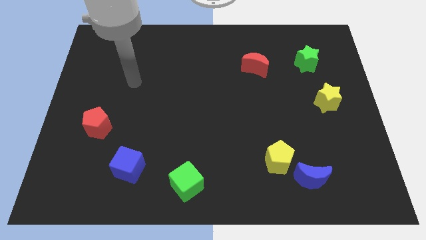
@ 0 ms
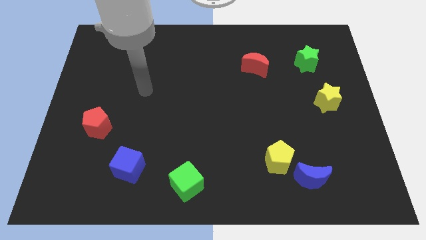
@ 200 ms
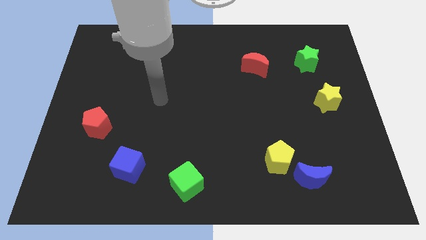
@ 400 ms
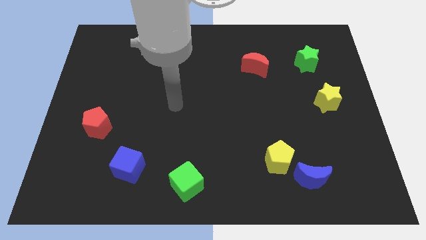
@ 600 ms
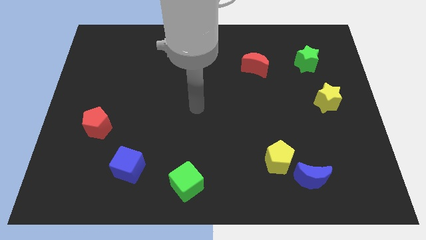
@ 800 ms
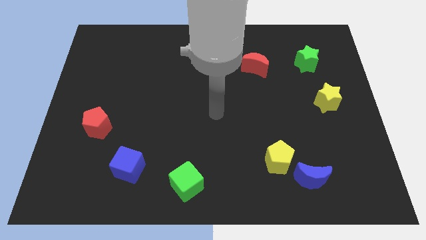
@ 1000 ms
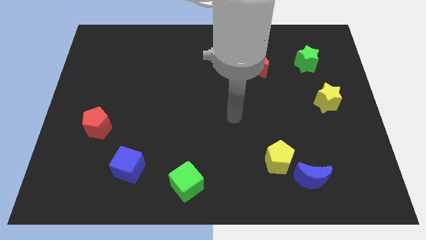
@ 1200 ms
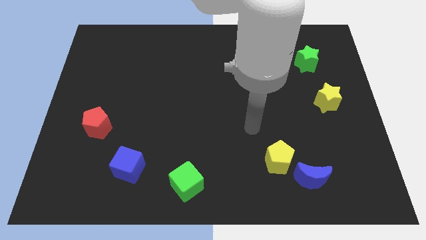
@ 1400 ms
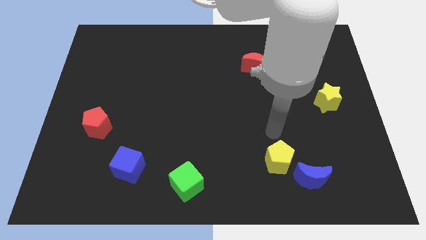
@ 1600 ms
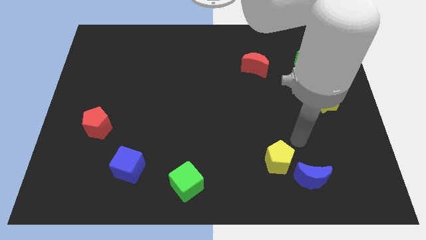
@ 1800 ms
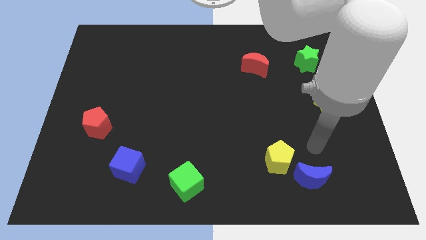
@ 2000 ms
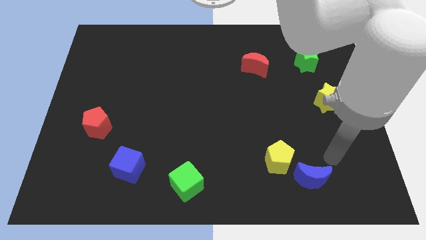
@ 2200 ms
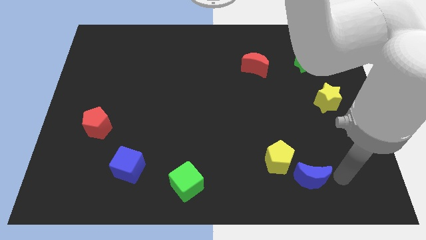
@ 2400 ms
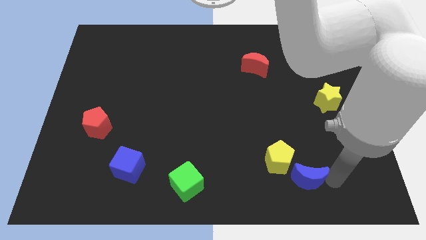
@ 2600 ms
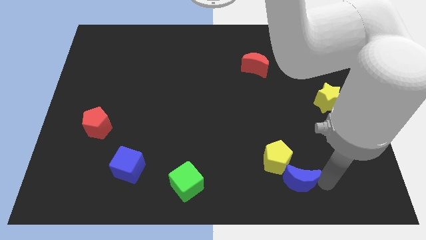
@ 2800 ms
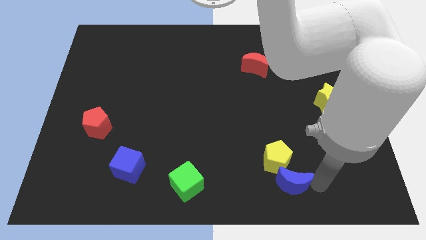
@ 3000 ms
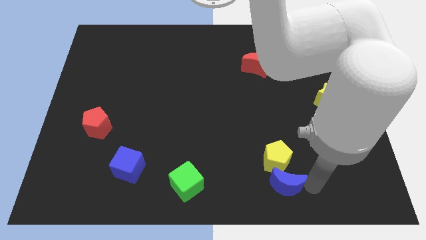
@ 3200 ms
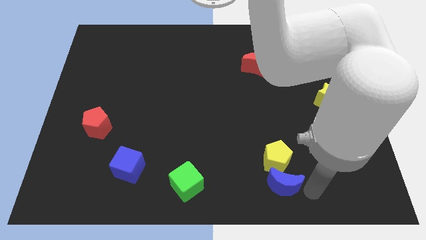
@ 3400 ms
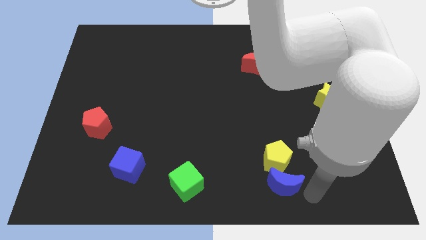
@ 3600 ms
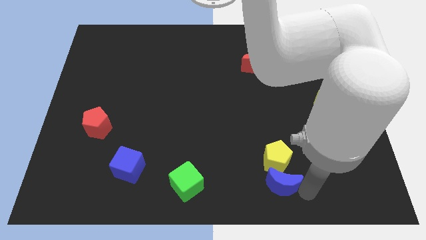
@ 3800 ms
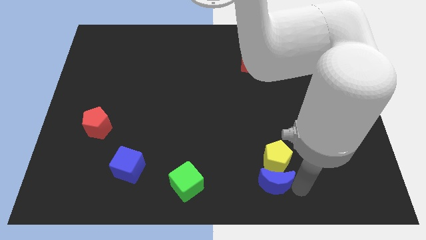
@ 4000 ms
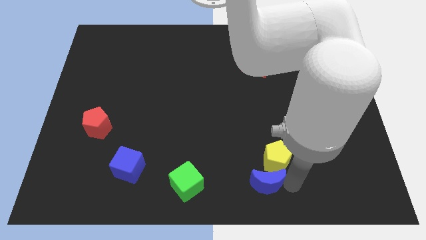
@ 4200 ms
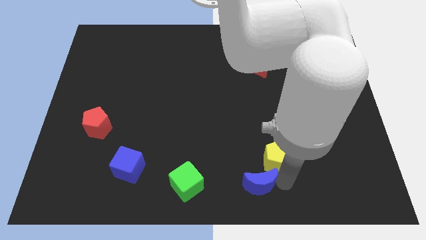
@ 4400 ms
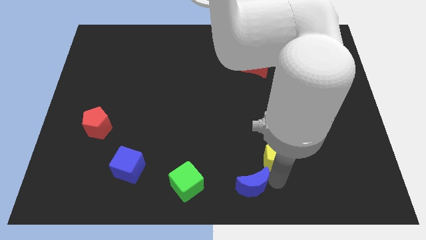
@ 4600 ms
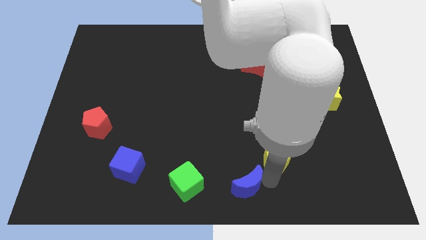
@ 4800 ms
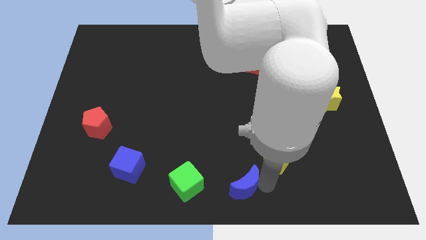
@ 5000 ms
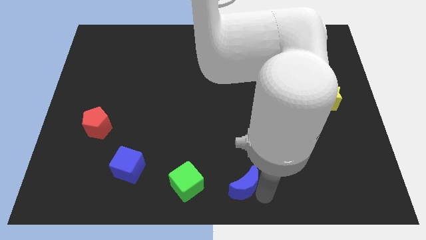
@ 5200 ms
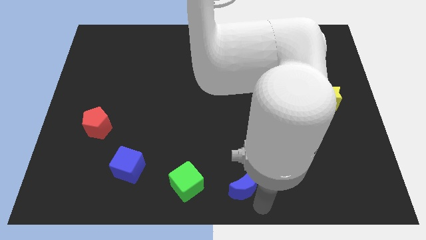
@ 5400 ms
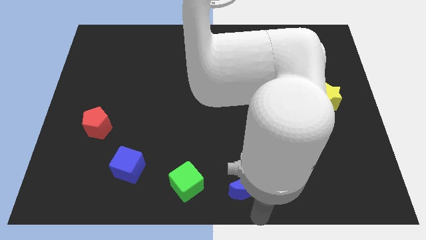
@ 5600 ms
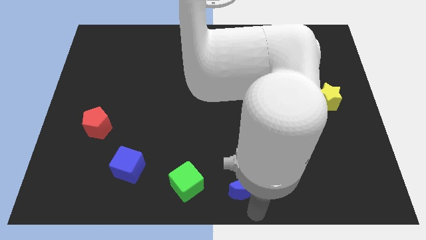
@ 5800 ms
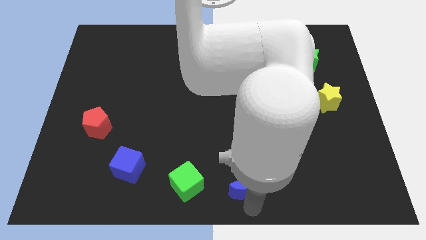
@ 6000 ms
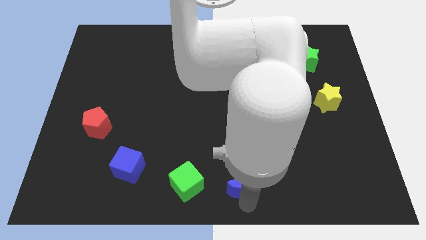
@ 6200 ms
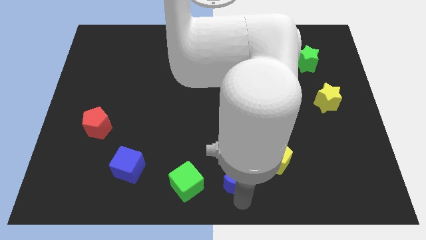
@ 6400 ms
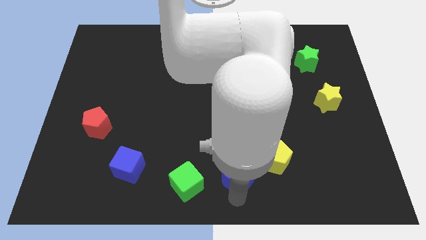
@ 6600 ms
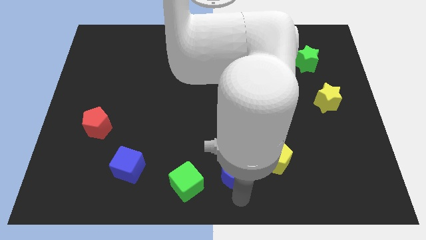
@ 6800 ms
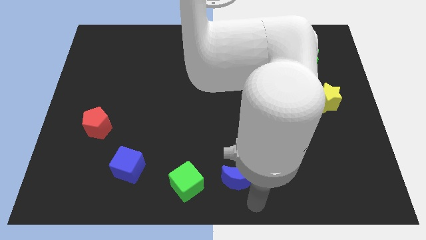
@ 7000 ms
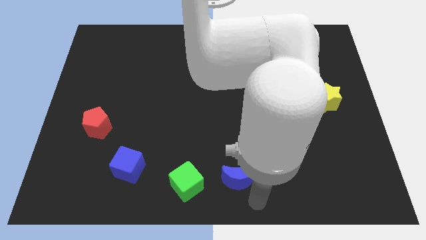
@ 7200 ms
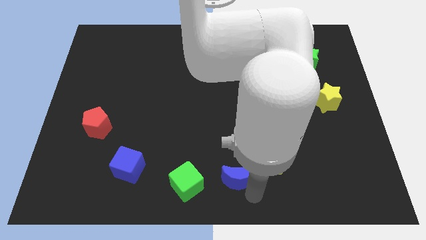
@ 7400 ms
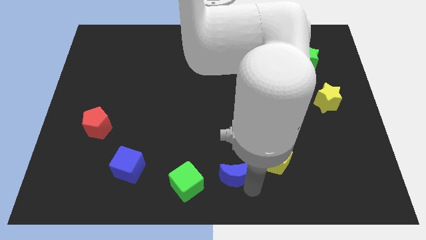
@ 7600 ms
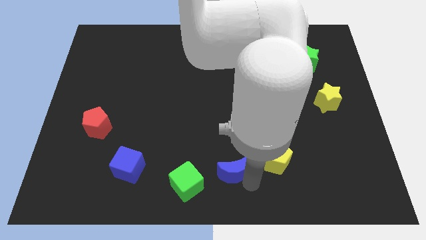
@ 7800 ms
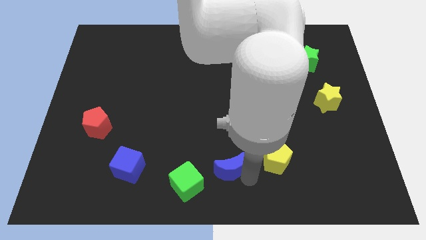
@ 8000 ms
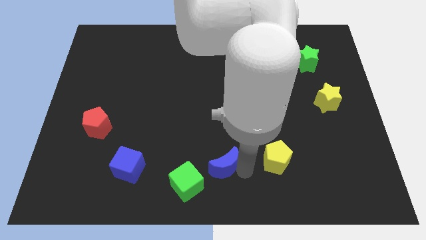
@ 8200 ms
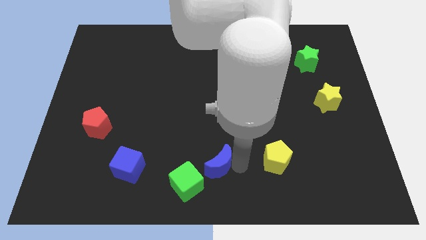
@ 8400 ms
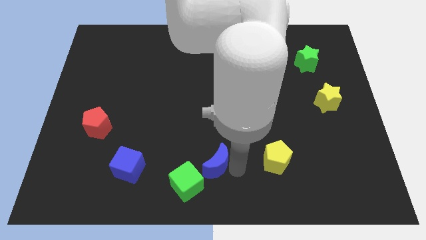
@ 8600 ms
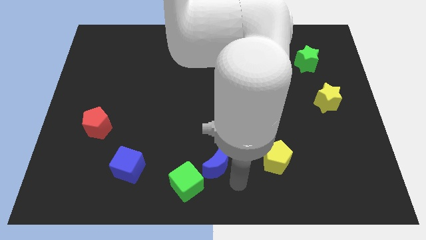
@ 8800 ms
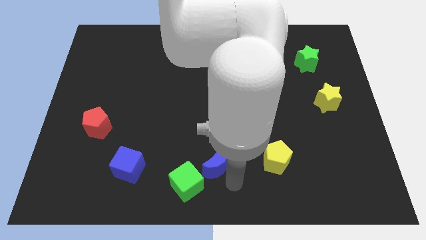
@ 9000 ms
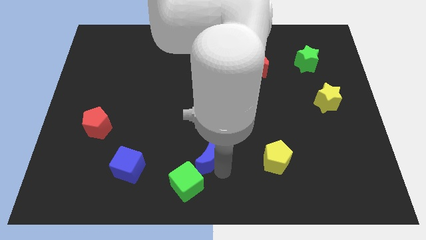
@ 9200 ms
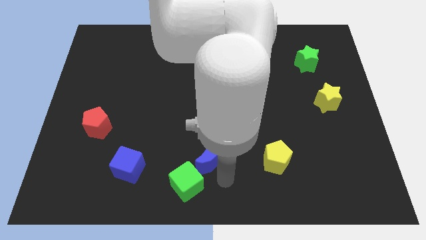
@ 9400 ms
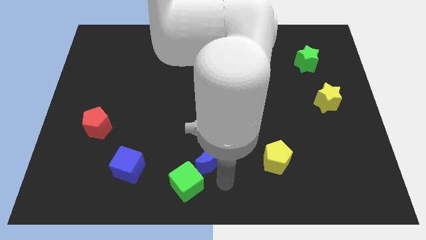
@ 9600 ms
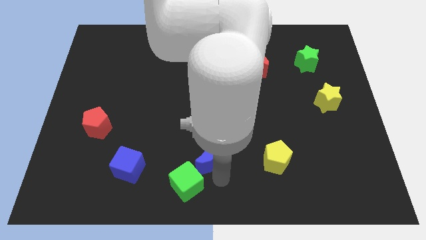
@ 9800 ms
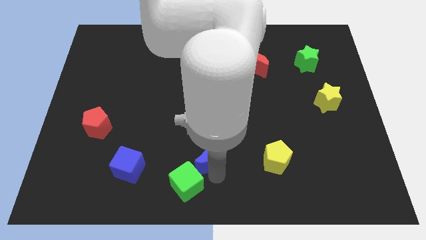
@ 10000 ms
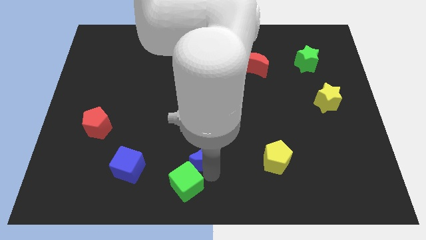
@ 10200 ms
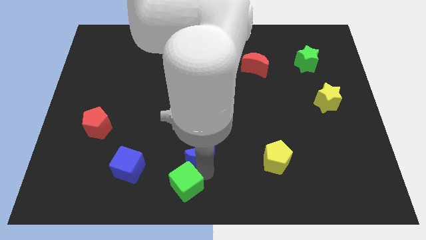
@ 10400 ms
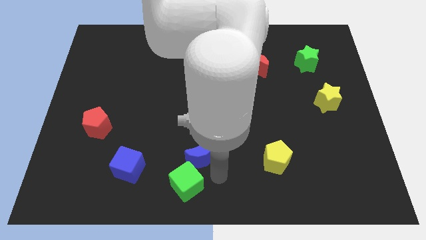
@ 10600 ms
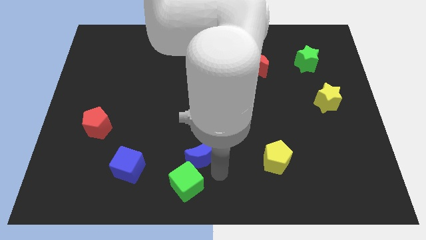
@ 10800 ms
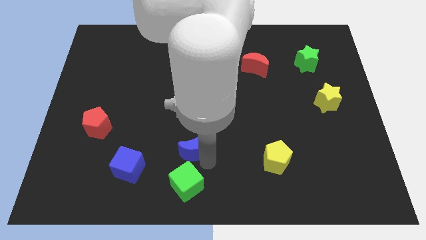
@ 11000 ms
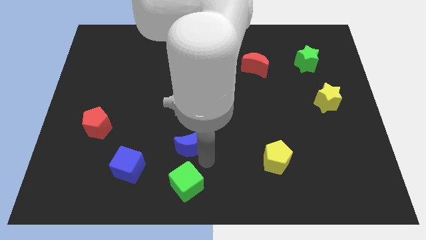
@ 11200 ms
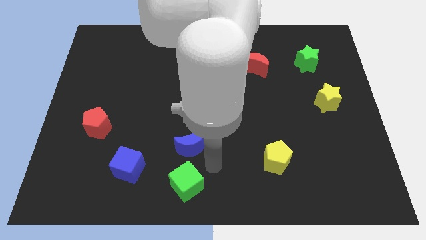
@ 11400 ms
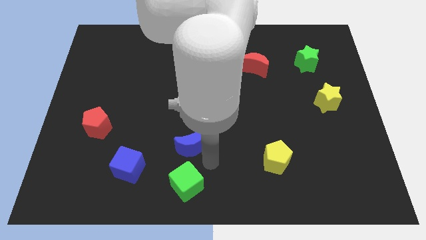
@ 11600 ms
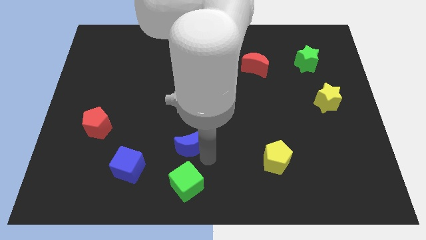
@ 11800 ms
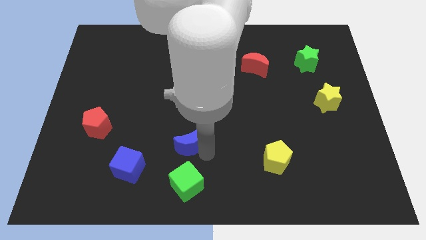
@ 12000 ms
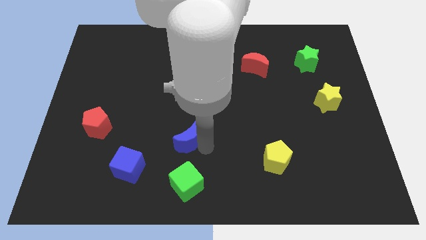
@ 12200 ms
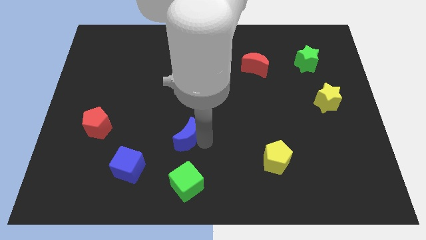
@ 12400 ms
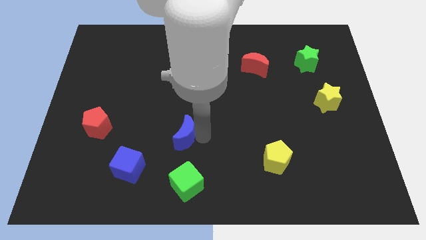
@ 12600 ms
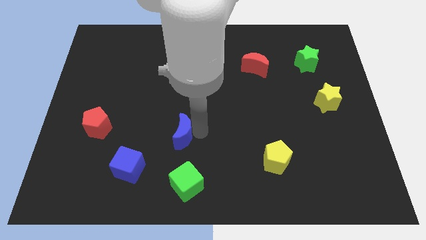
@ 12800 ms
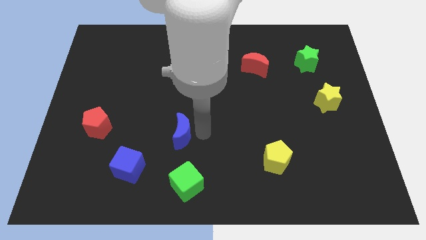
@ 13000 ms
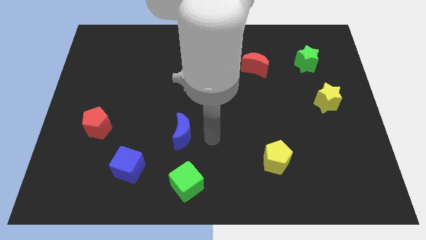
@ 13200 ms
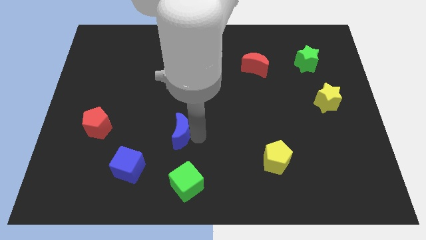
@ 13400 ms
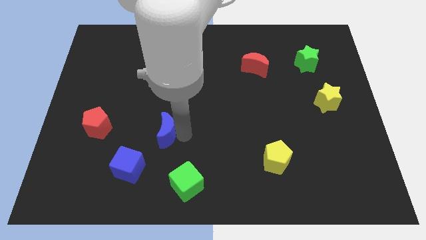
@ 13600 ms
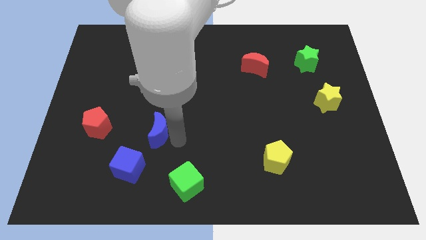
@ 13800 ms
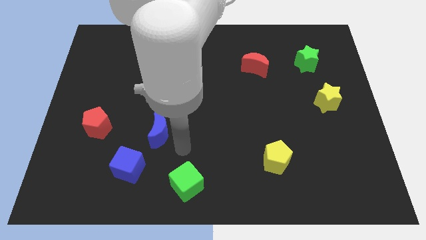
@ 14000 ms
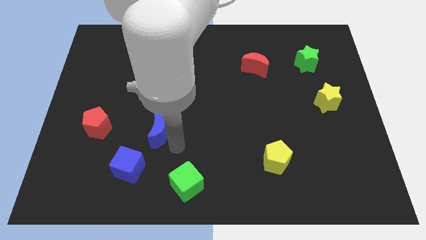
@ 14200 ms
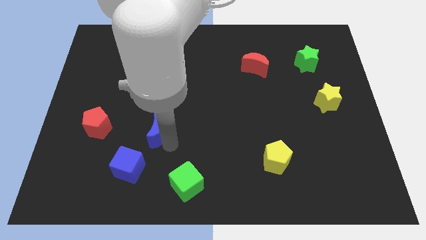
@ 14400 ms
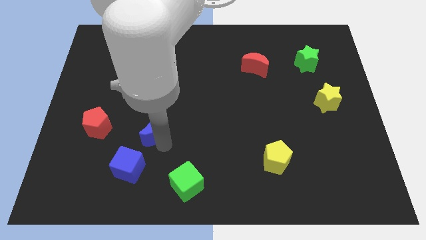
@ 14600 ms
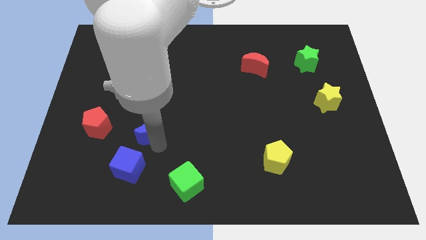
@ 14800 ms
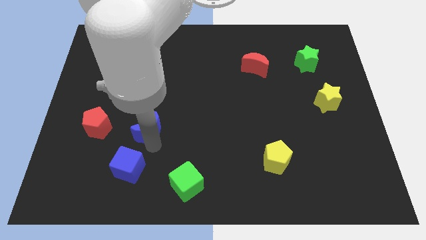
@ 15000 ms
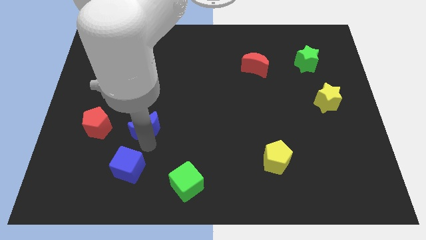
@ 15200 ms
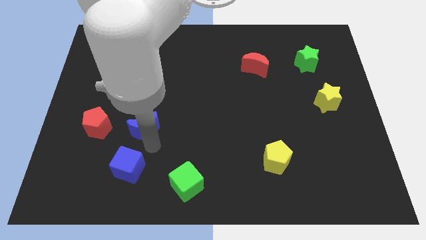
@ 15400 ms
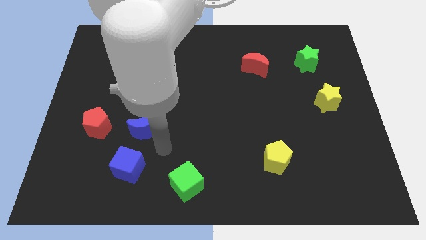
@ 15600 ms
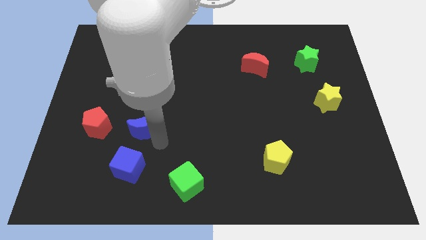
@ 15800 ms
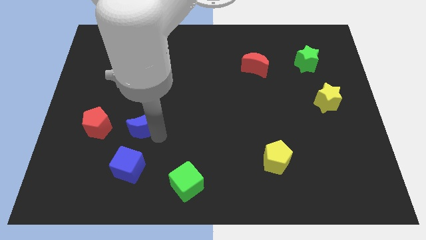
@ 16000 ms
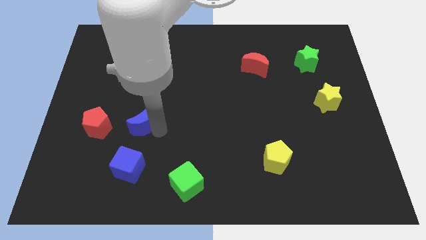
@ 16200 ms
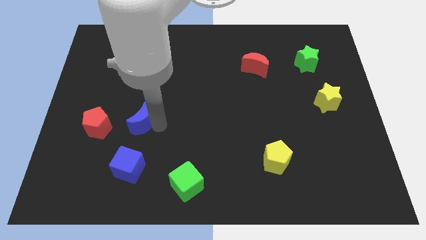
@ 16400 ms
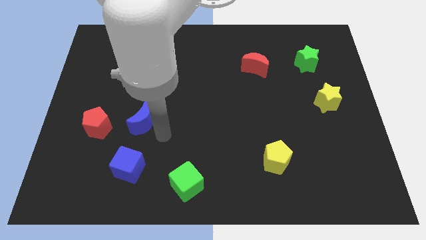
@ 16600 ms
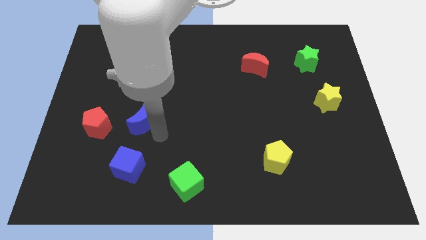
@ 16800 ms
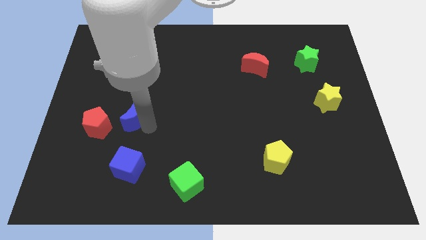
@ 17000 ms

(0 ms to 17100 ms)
slide the blue moon to the top right of the red pentagon
